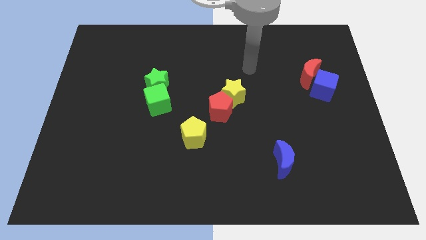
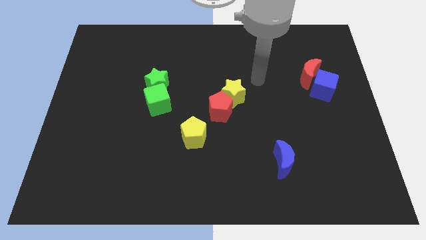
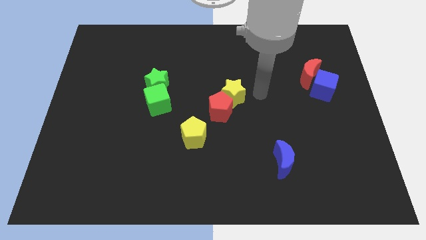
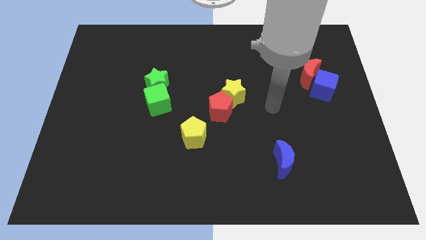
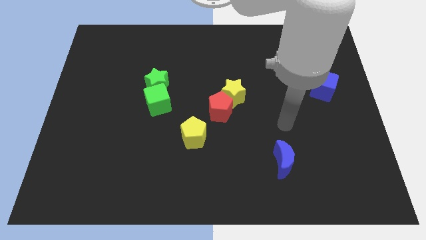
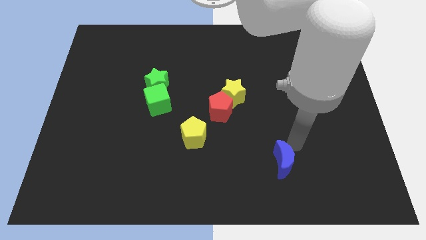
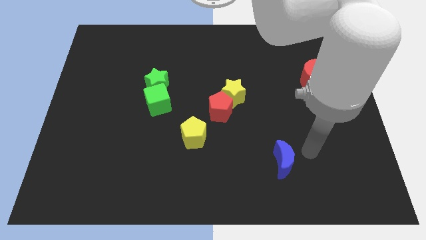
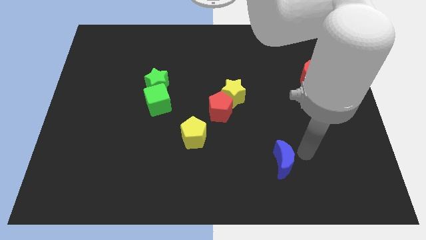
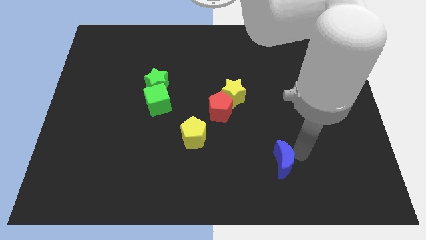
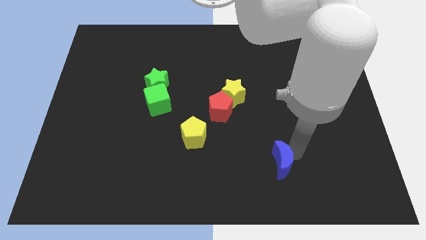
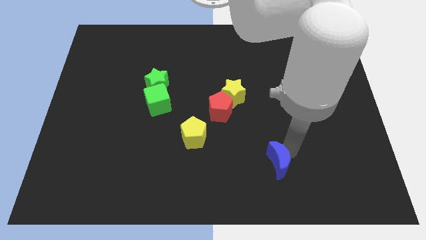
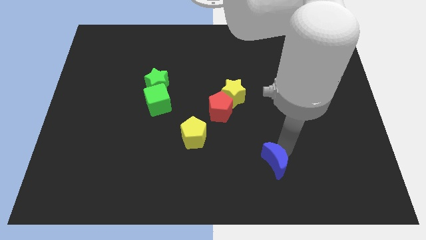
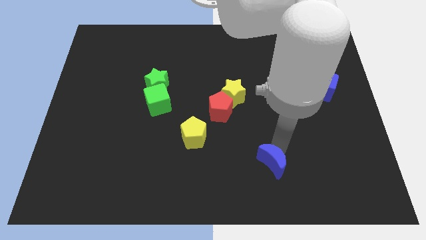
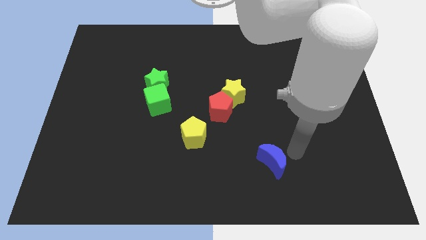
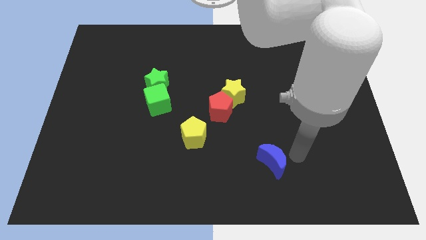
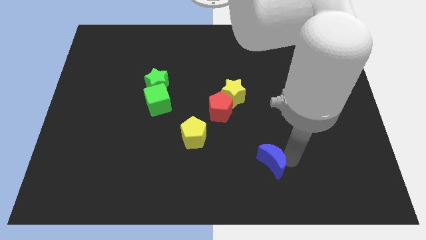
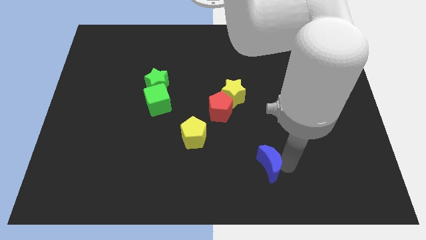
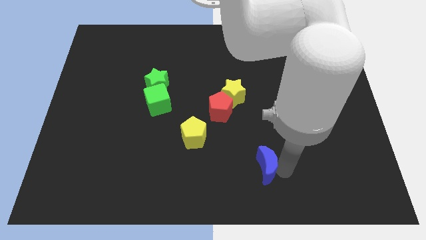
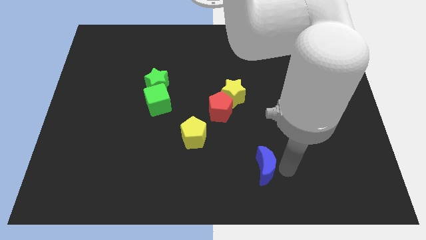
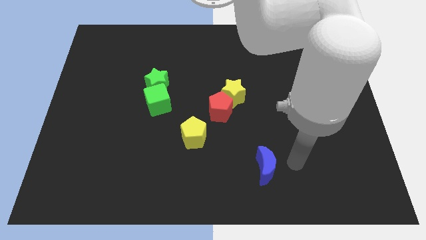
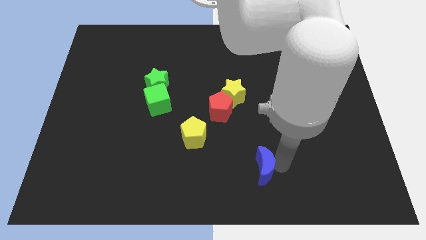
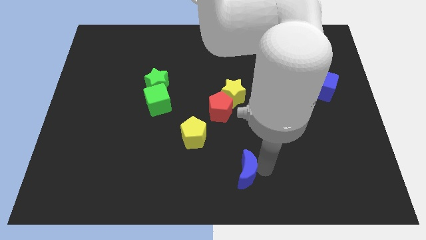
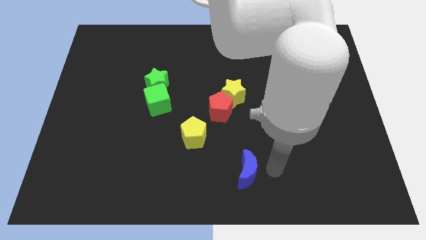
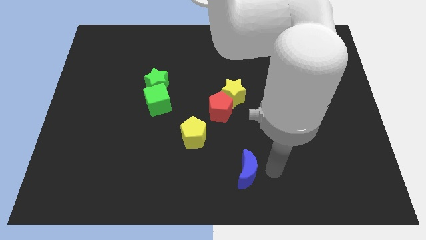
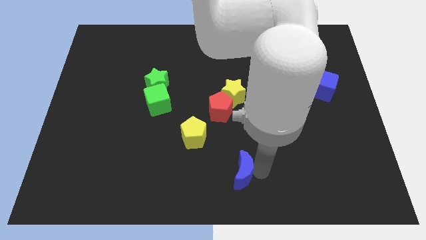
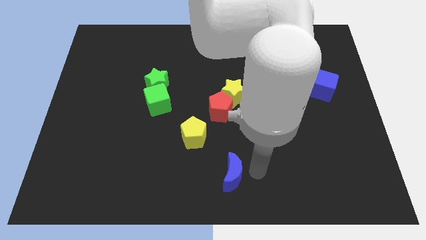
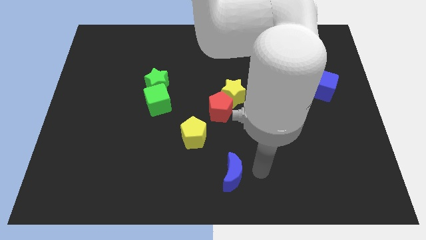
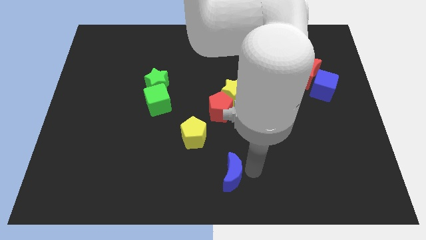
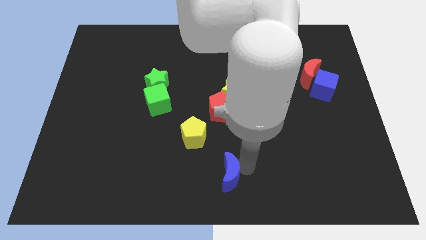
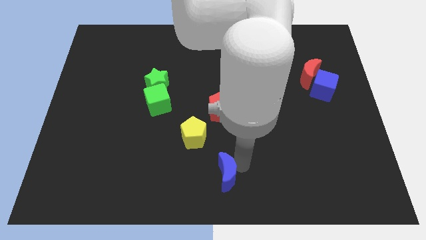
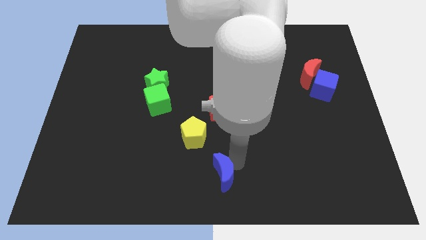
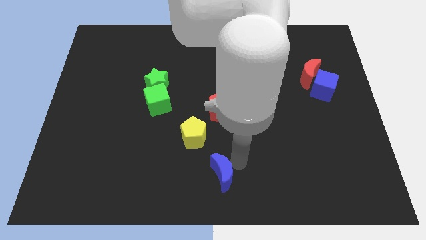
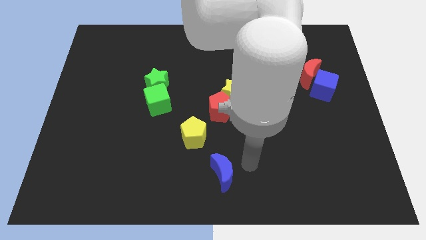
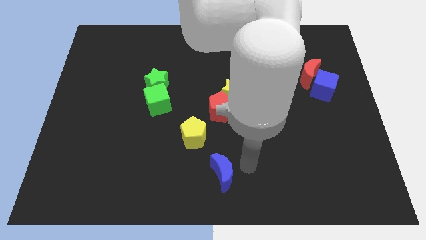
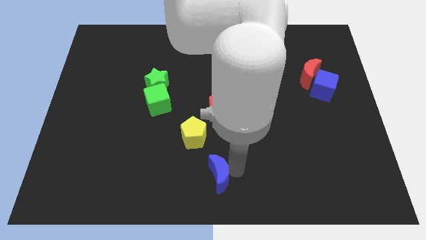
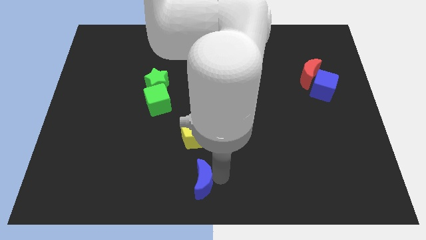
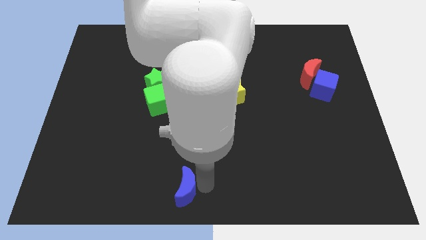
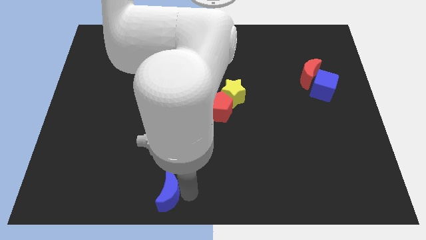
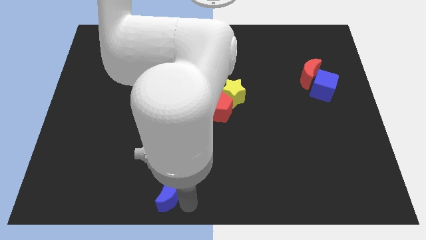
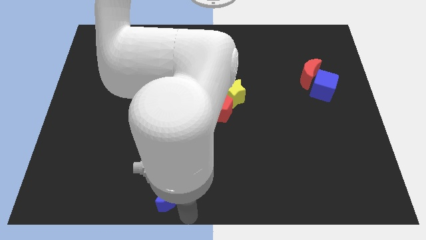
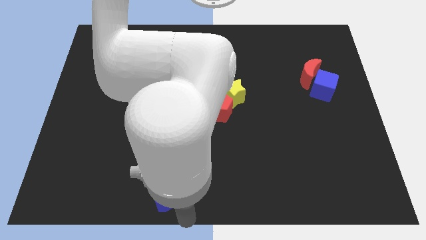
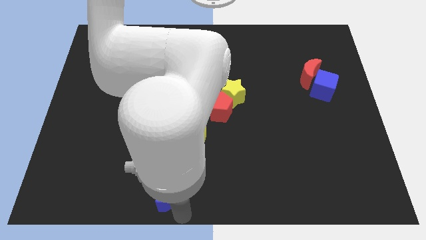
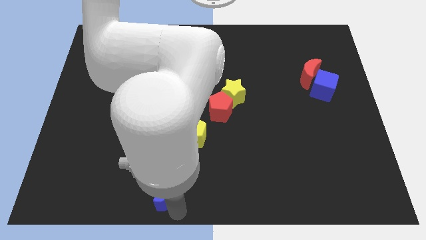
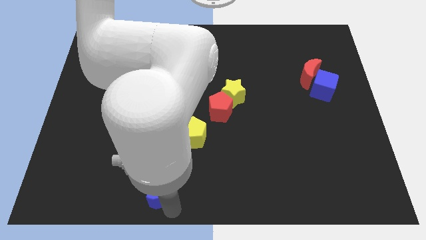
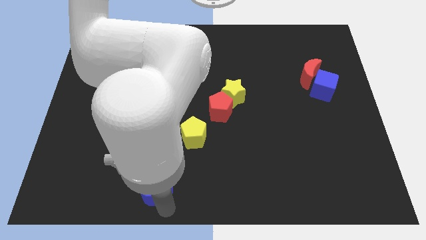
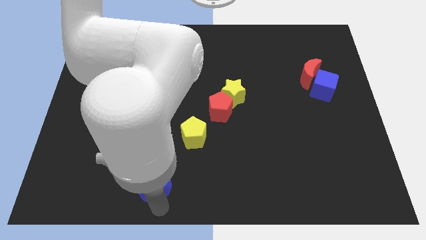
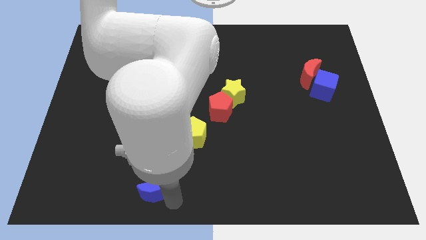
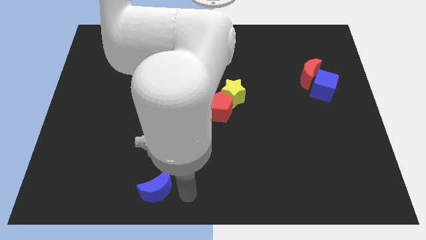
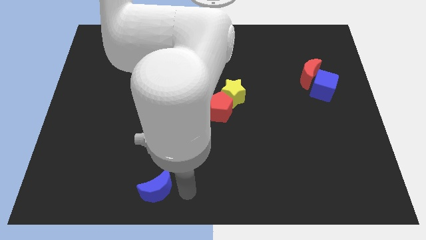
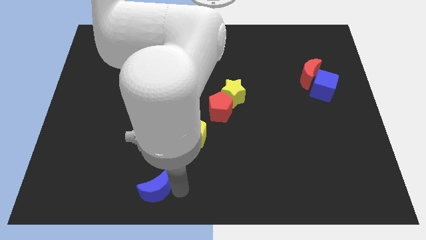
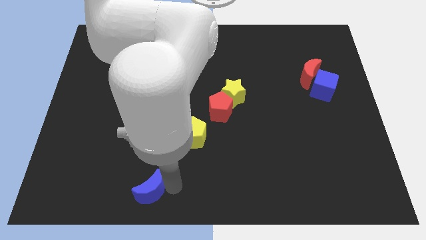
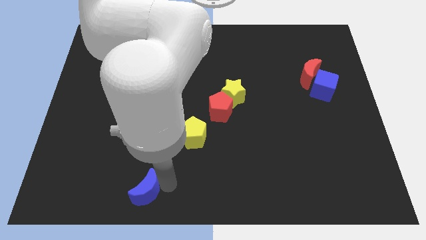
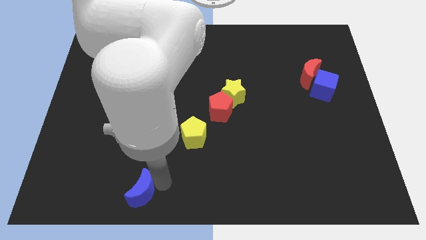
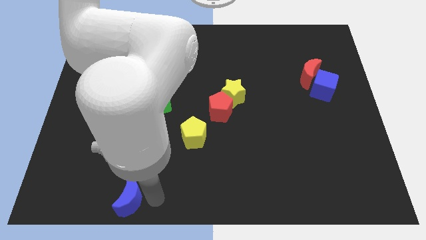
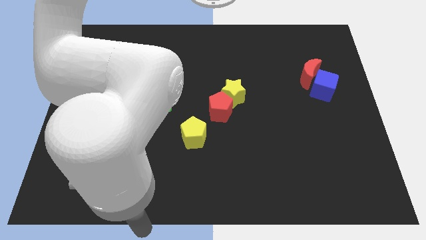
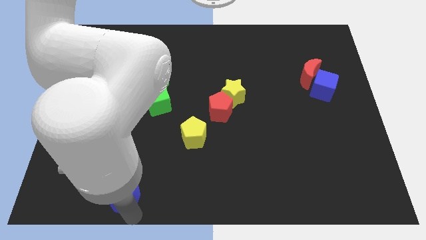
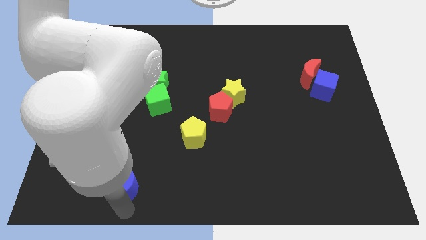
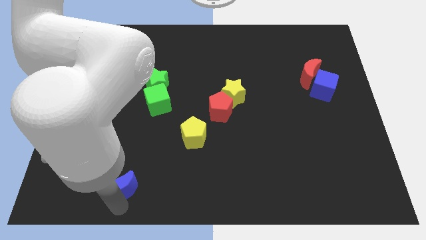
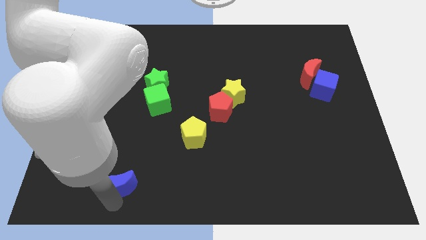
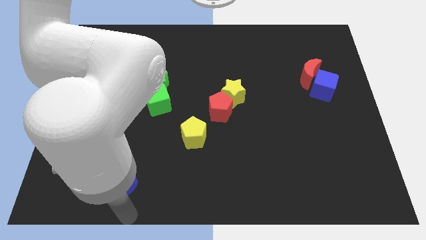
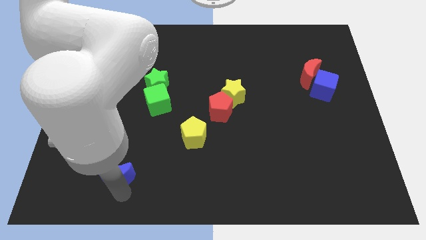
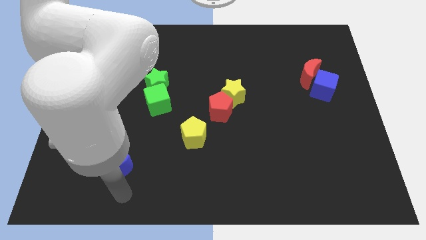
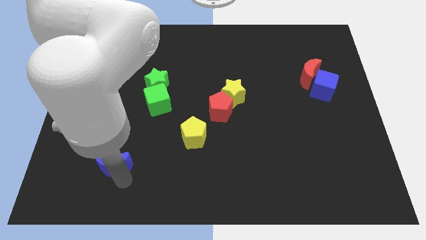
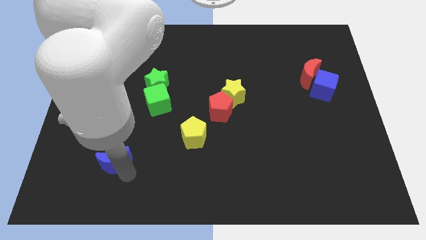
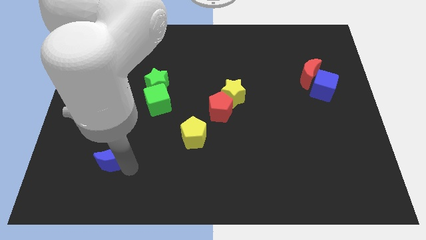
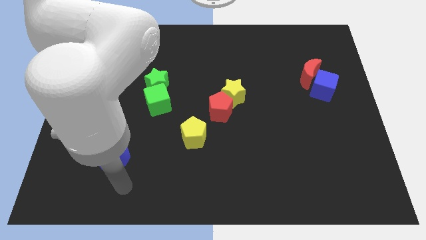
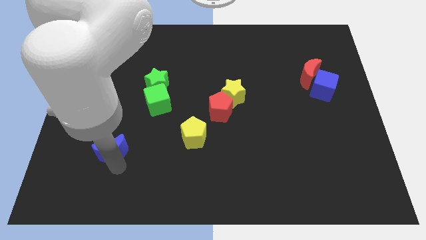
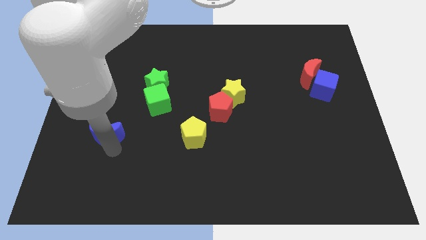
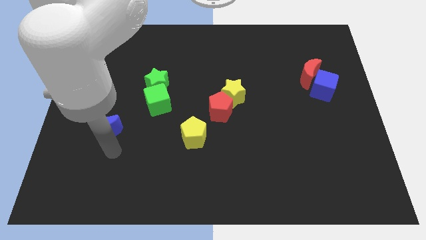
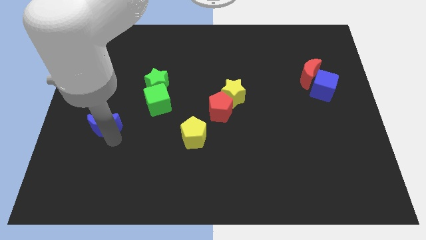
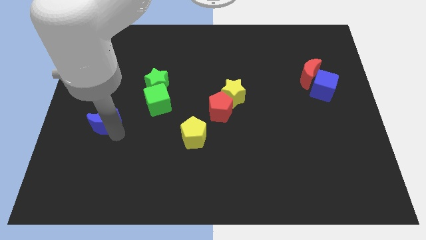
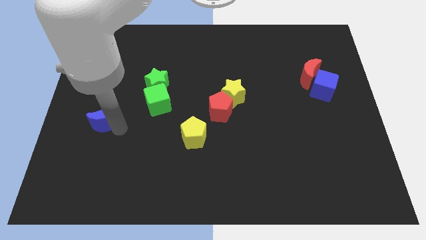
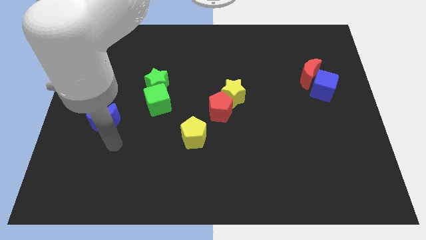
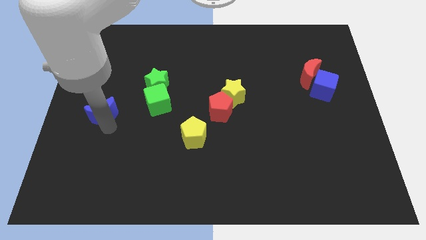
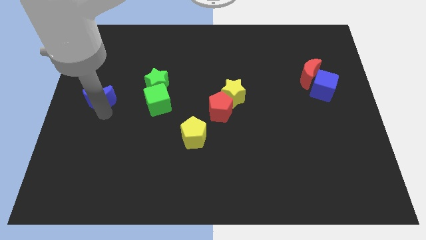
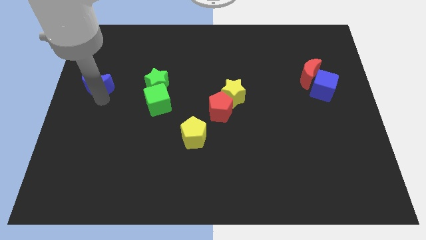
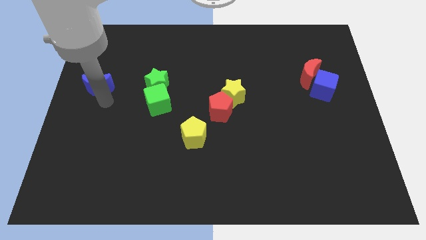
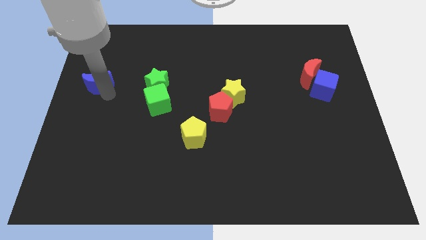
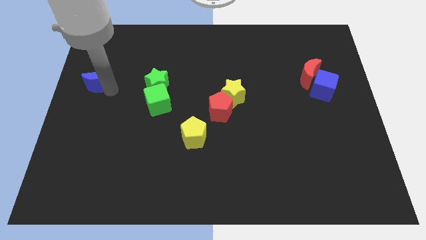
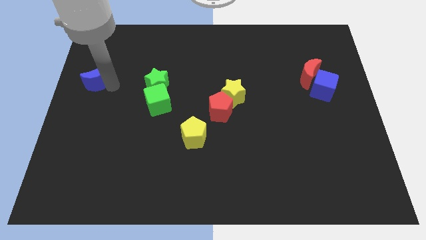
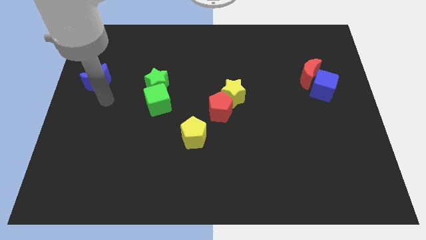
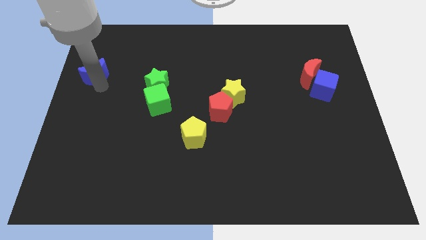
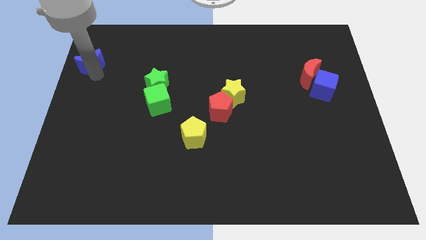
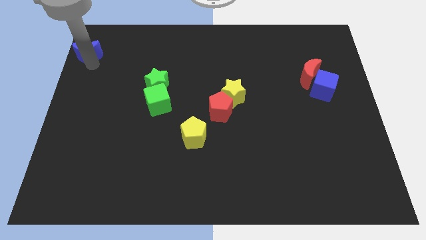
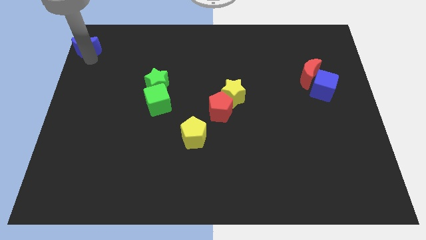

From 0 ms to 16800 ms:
slide the blue moon to the top left
